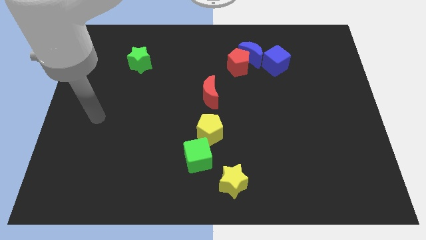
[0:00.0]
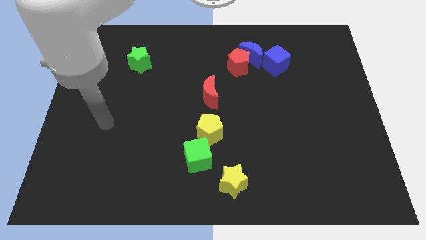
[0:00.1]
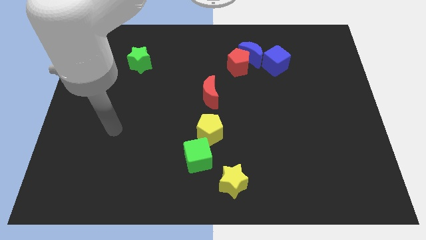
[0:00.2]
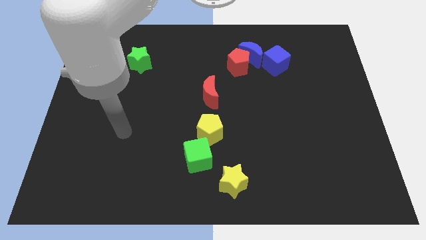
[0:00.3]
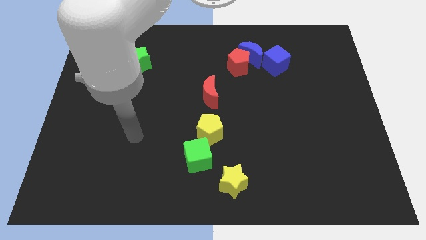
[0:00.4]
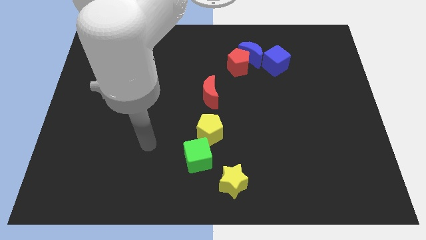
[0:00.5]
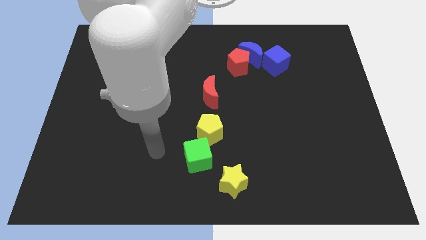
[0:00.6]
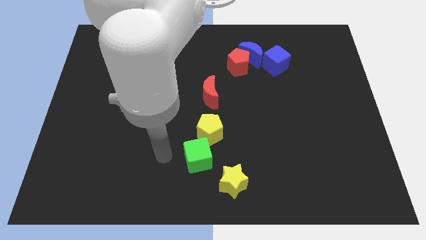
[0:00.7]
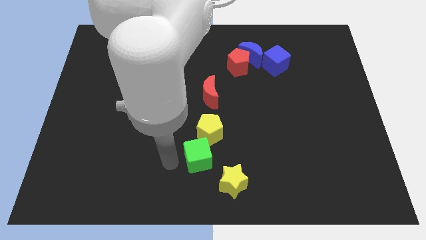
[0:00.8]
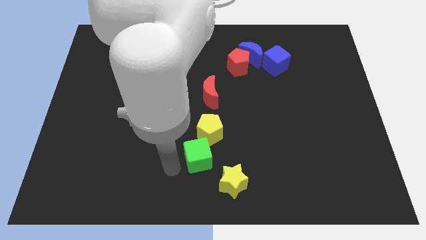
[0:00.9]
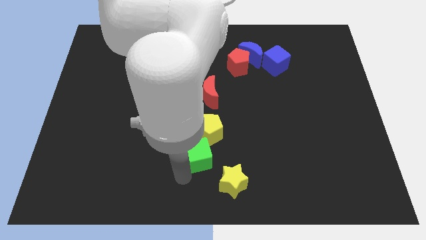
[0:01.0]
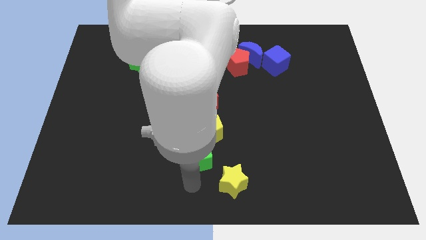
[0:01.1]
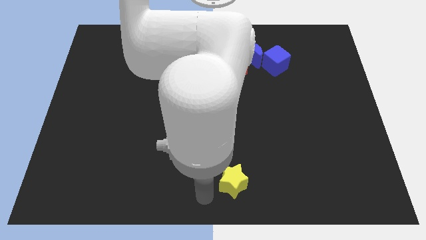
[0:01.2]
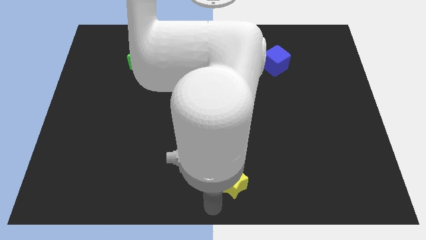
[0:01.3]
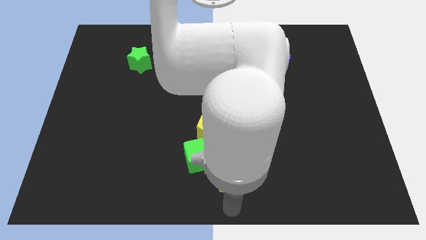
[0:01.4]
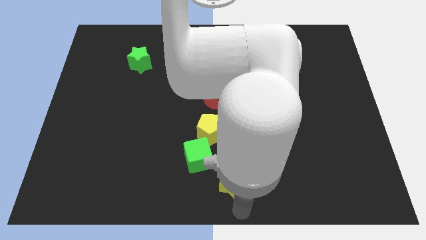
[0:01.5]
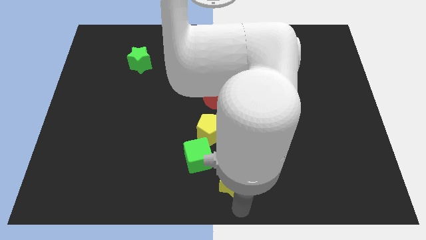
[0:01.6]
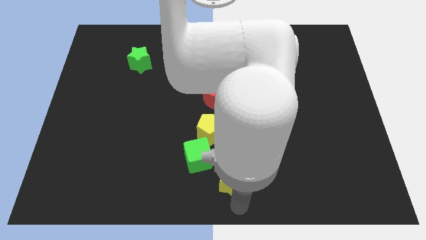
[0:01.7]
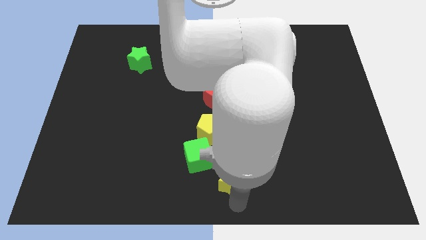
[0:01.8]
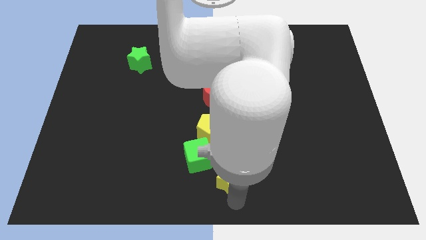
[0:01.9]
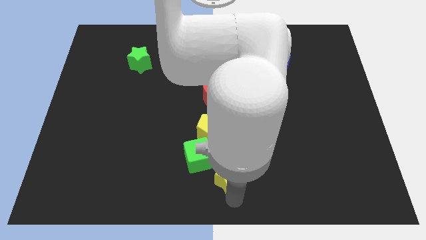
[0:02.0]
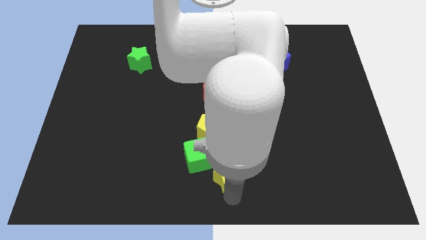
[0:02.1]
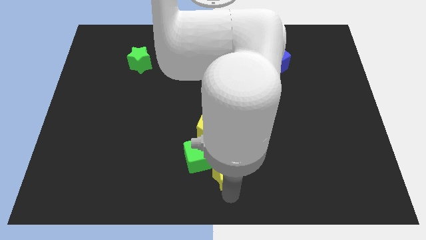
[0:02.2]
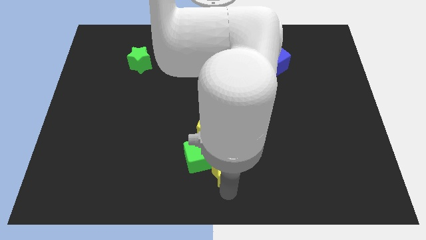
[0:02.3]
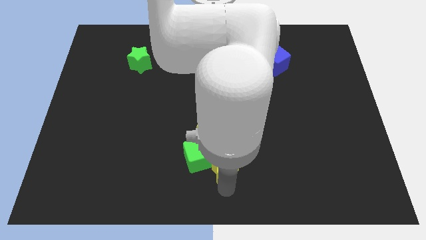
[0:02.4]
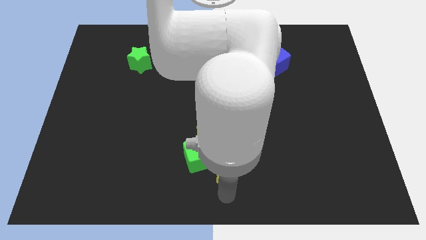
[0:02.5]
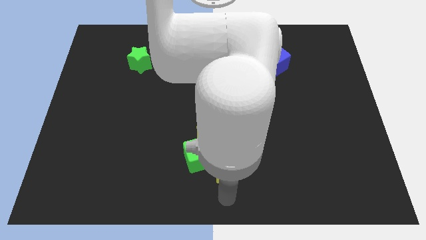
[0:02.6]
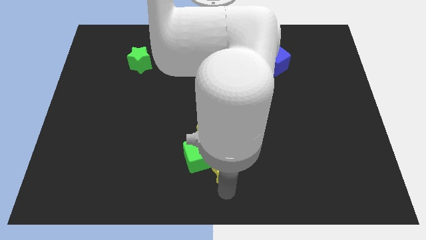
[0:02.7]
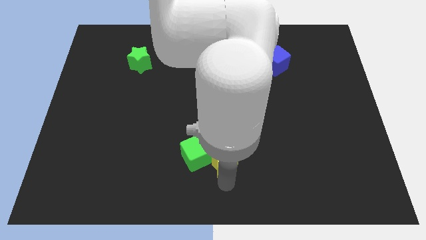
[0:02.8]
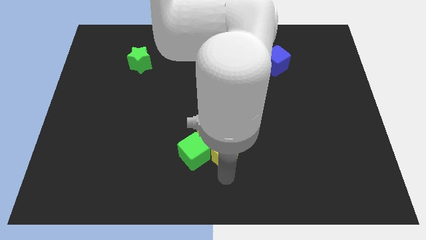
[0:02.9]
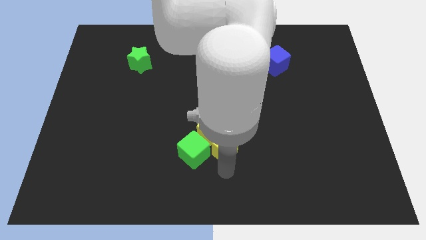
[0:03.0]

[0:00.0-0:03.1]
push the yellow star a little bit up

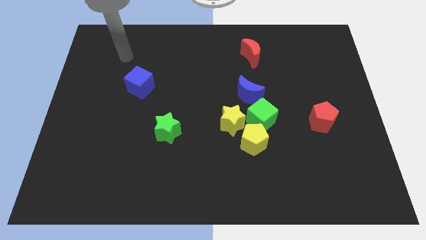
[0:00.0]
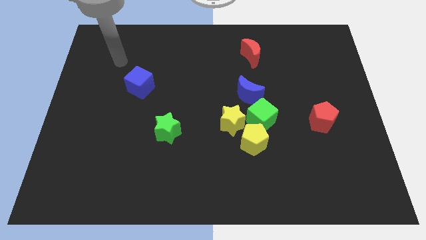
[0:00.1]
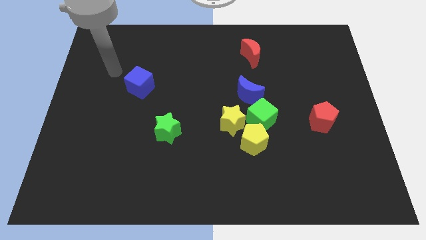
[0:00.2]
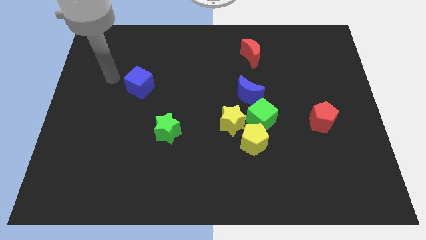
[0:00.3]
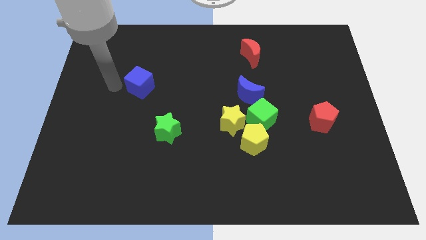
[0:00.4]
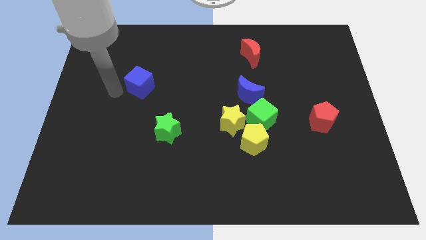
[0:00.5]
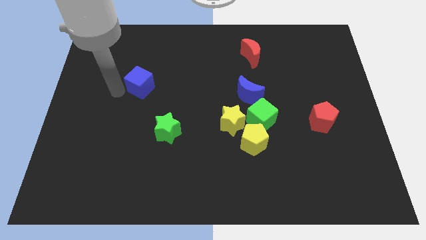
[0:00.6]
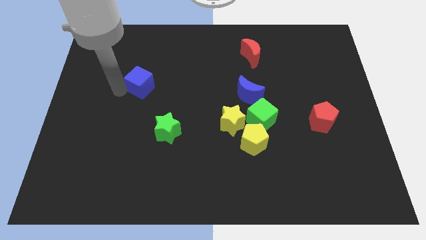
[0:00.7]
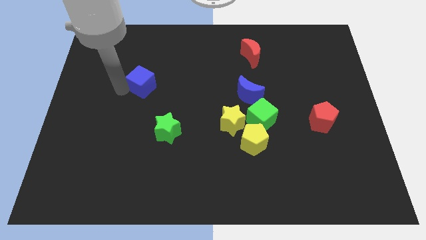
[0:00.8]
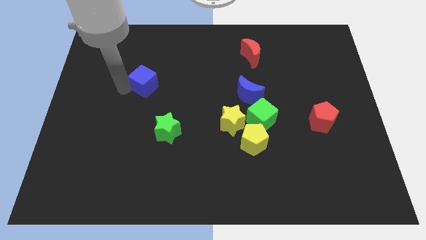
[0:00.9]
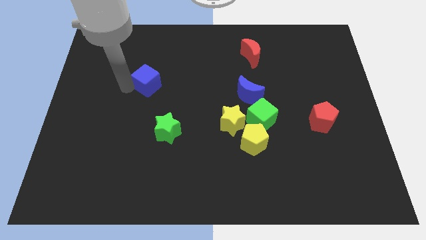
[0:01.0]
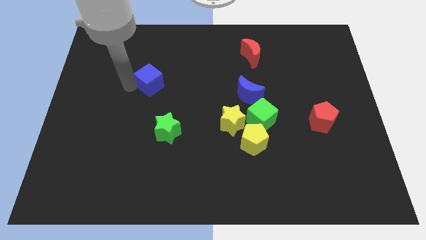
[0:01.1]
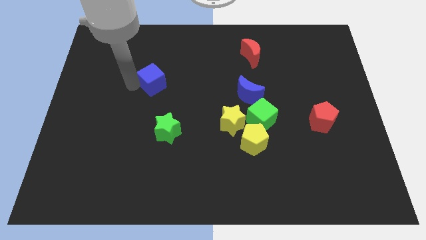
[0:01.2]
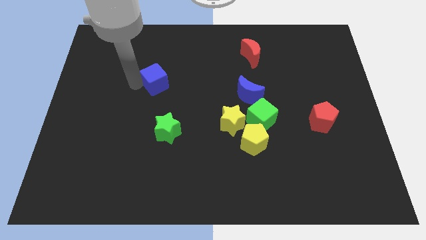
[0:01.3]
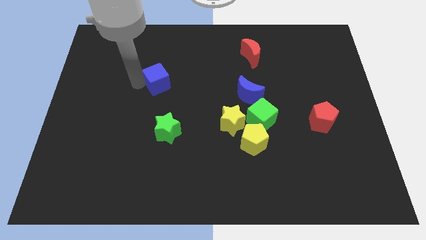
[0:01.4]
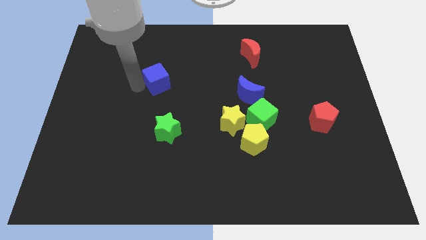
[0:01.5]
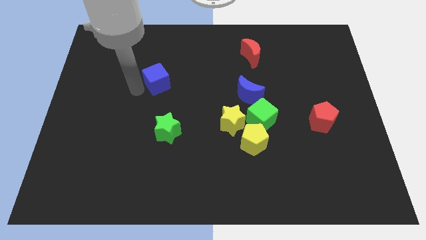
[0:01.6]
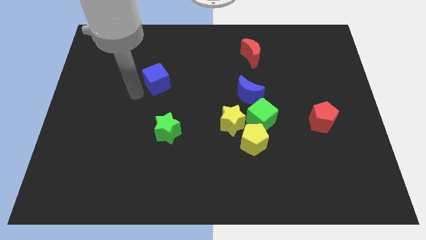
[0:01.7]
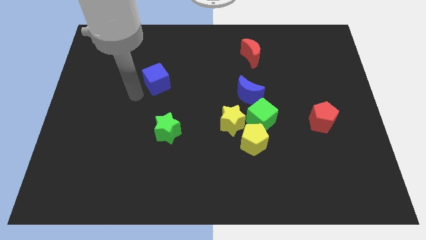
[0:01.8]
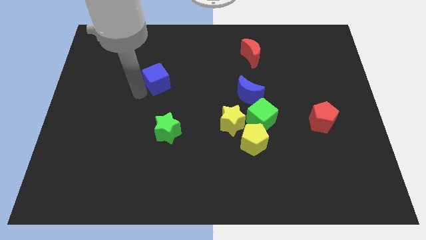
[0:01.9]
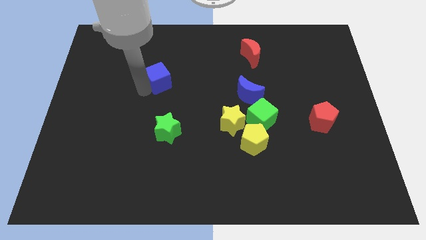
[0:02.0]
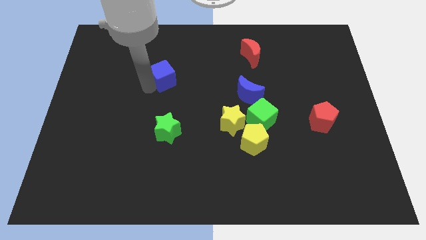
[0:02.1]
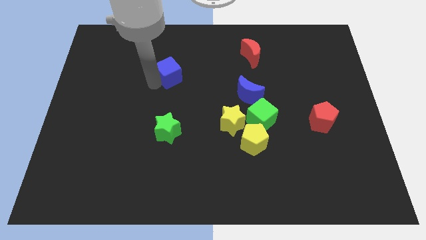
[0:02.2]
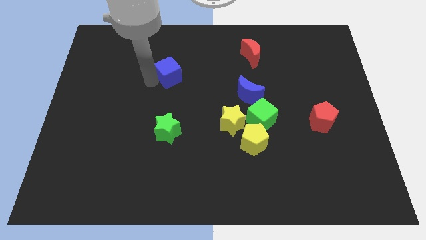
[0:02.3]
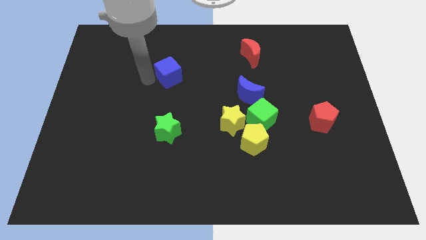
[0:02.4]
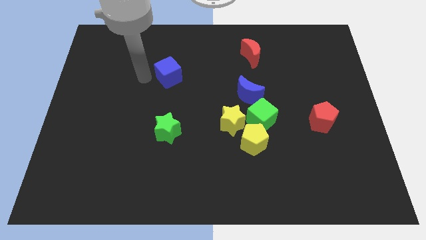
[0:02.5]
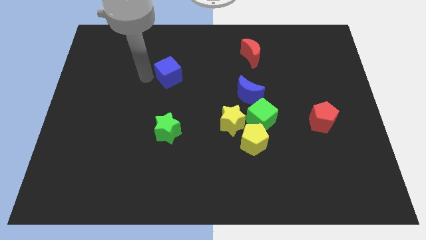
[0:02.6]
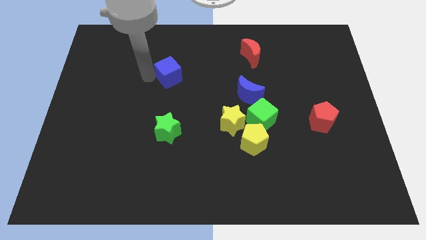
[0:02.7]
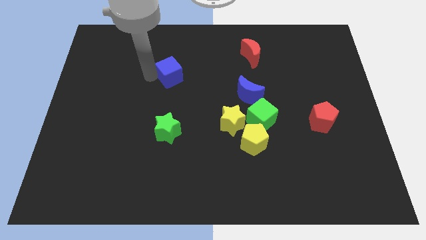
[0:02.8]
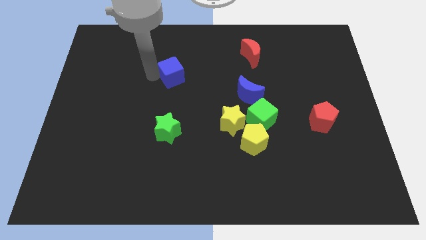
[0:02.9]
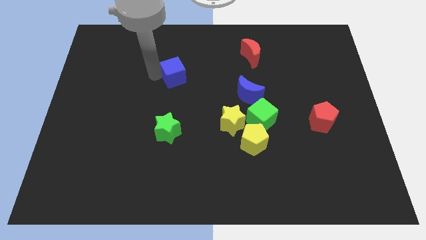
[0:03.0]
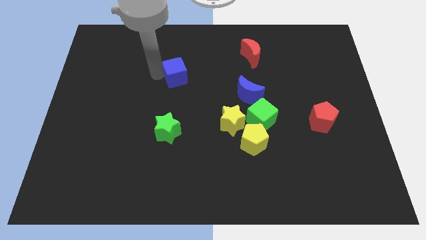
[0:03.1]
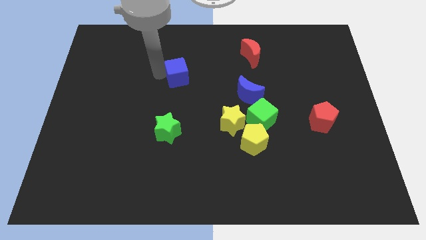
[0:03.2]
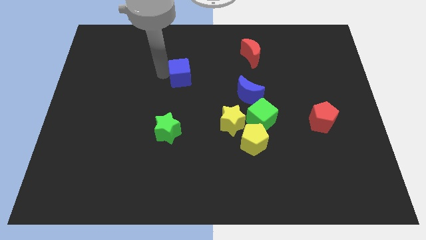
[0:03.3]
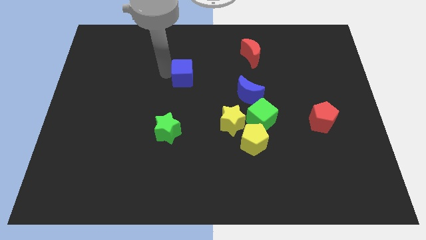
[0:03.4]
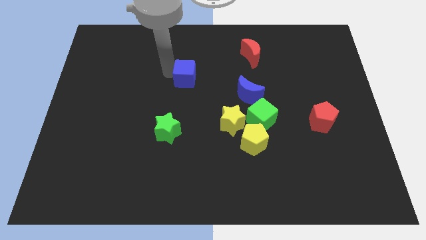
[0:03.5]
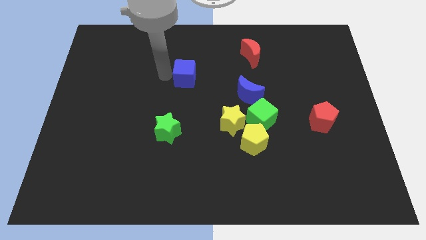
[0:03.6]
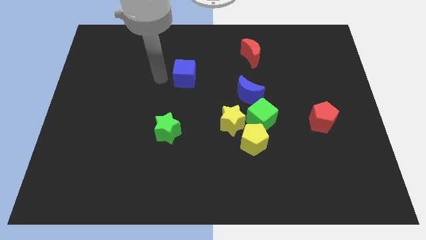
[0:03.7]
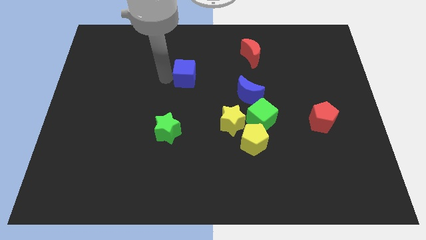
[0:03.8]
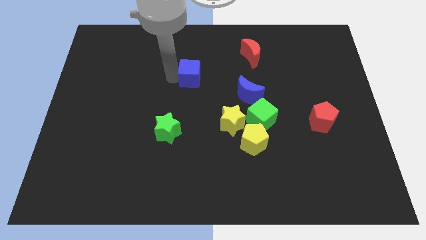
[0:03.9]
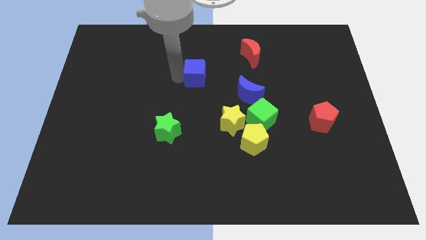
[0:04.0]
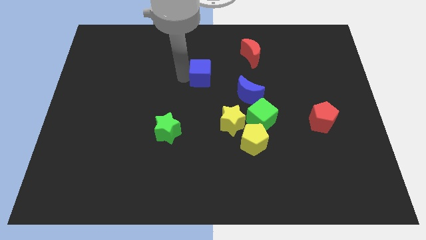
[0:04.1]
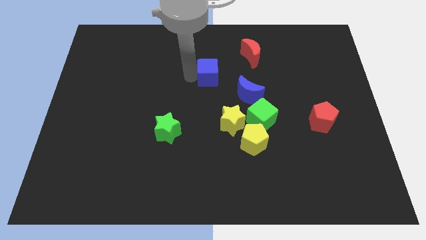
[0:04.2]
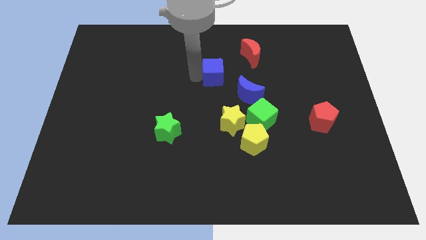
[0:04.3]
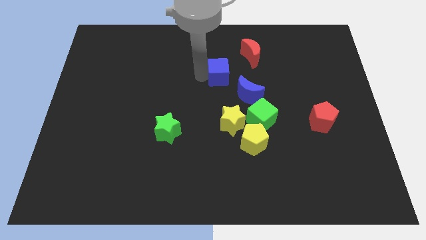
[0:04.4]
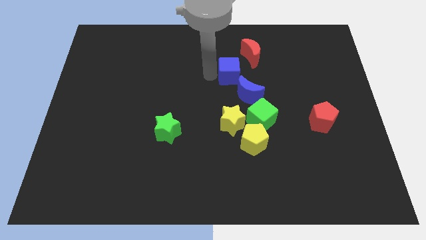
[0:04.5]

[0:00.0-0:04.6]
move the blue cube right

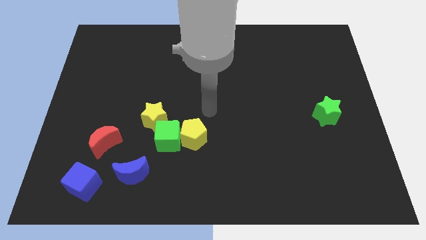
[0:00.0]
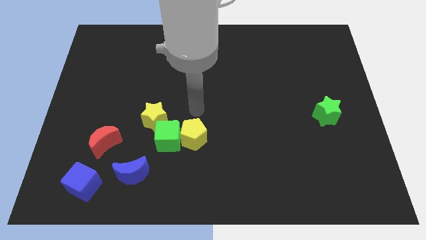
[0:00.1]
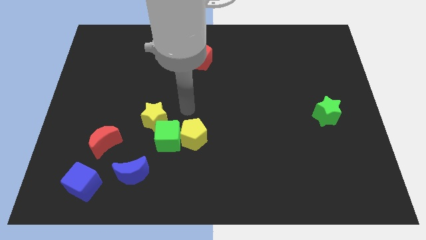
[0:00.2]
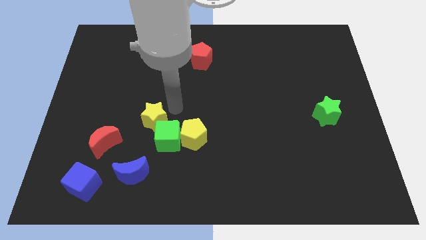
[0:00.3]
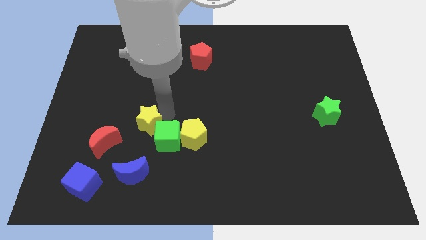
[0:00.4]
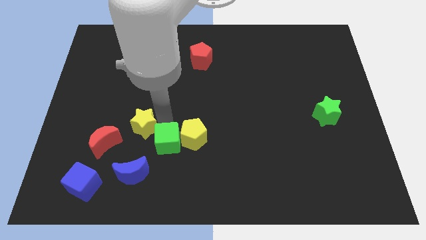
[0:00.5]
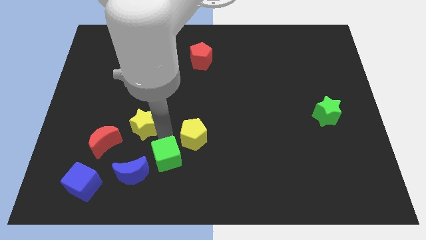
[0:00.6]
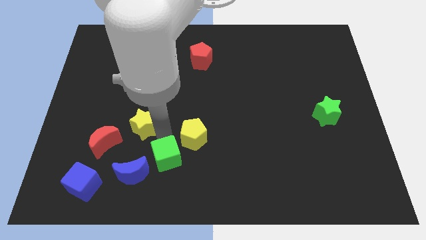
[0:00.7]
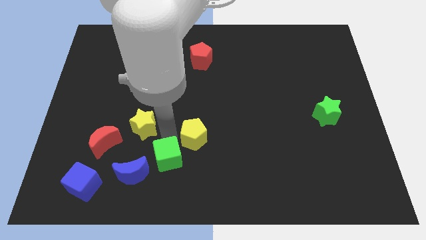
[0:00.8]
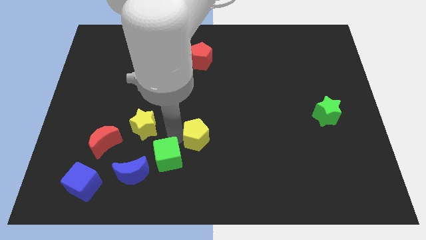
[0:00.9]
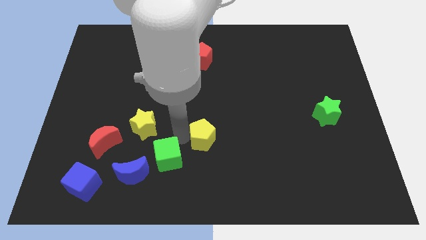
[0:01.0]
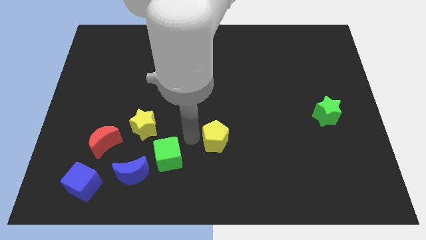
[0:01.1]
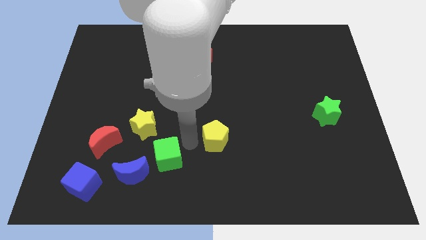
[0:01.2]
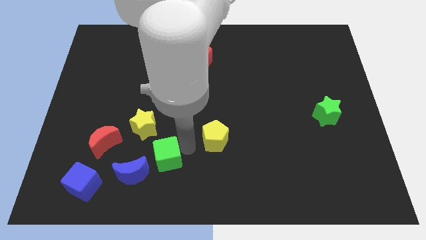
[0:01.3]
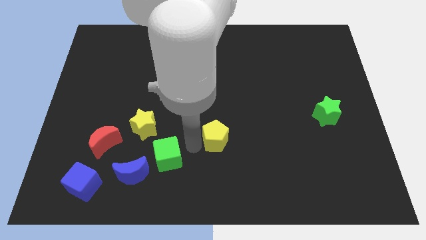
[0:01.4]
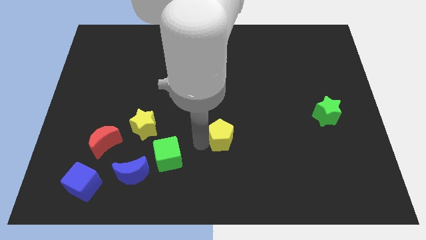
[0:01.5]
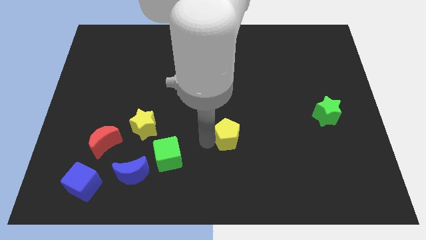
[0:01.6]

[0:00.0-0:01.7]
push the yellow pentagon right slightly
